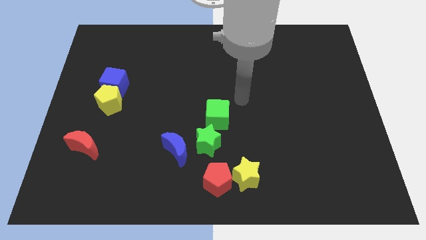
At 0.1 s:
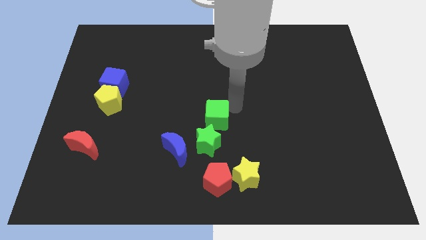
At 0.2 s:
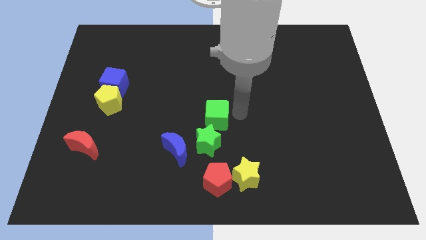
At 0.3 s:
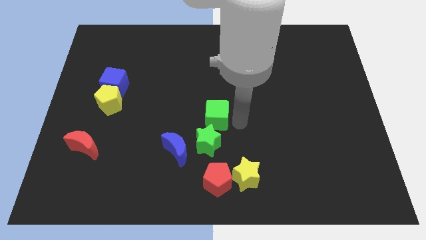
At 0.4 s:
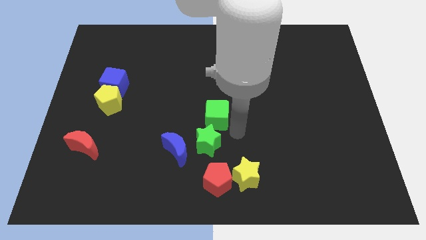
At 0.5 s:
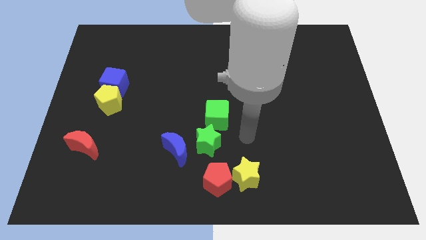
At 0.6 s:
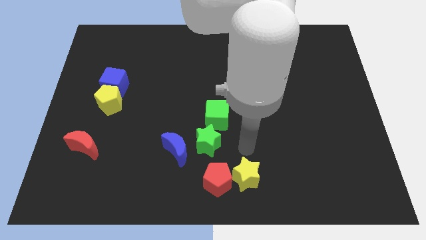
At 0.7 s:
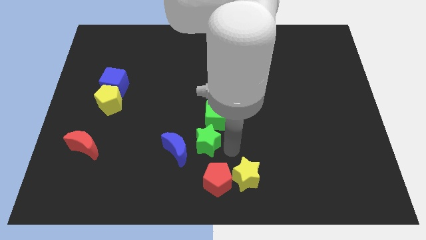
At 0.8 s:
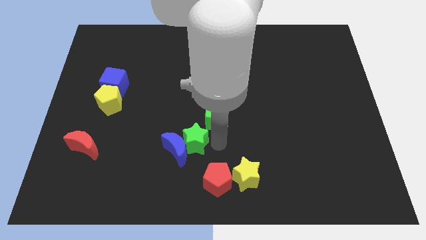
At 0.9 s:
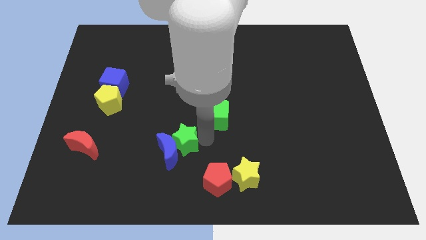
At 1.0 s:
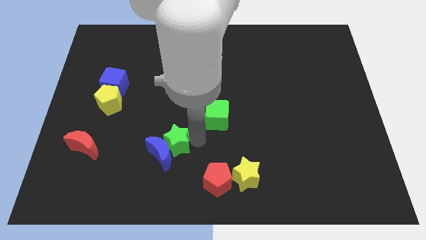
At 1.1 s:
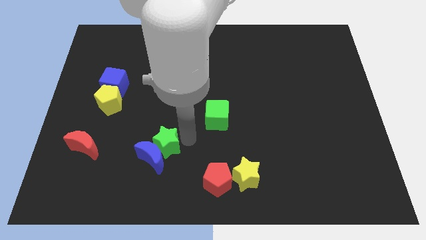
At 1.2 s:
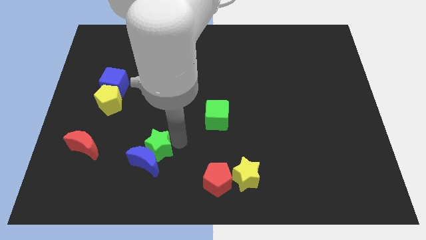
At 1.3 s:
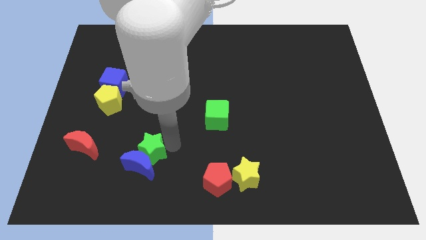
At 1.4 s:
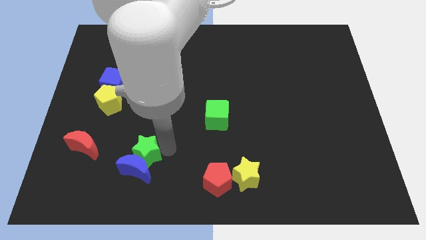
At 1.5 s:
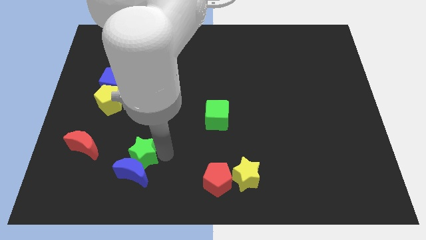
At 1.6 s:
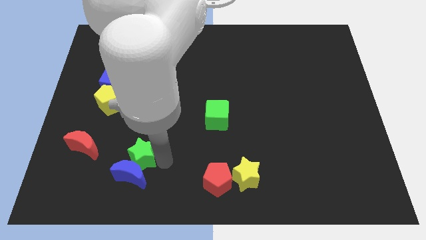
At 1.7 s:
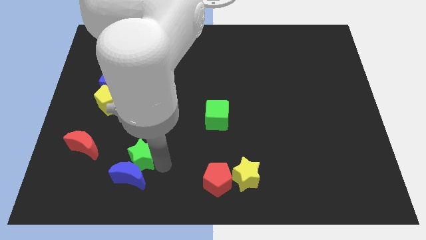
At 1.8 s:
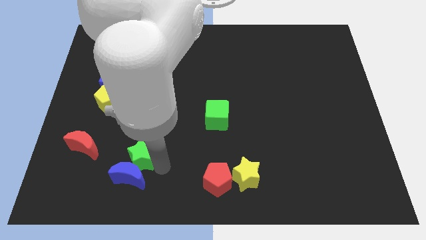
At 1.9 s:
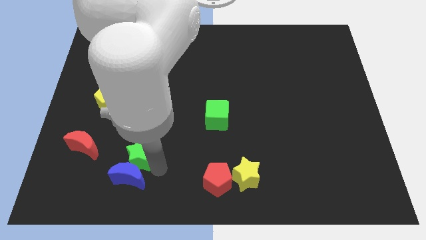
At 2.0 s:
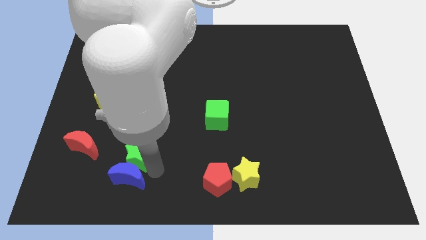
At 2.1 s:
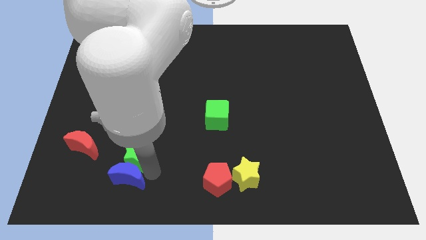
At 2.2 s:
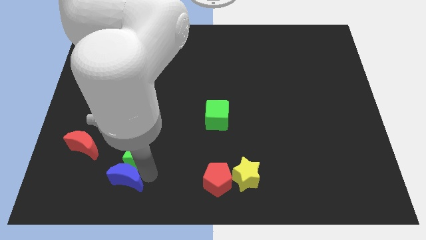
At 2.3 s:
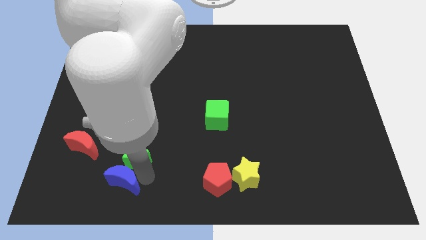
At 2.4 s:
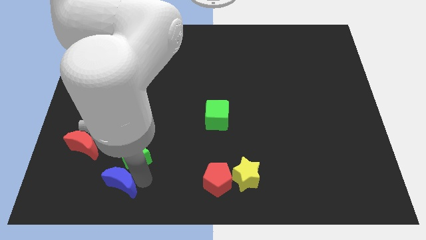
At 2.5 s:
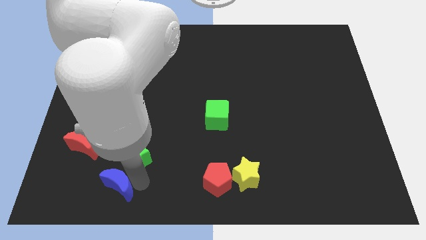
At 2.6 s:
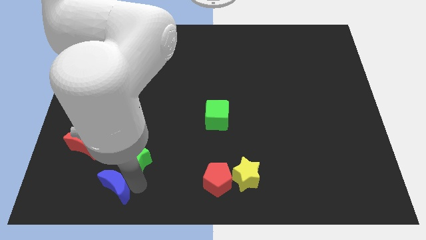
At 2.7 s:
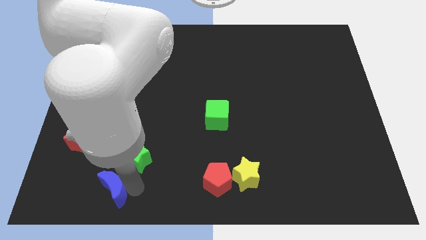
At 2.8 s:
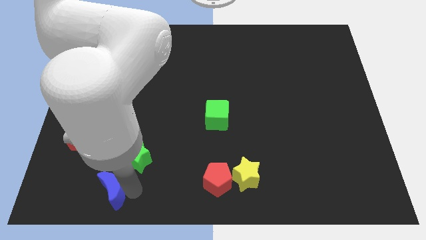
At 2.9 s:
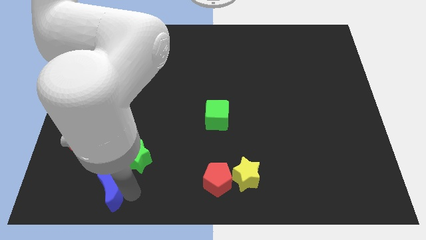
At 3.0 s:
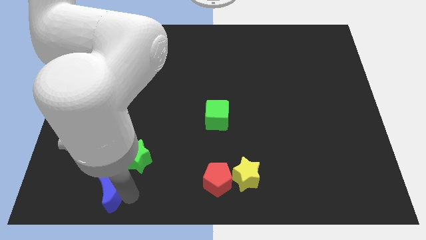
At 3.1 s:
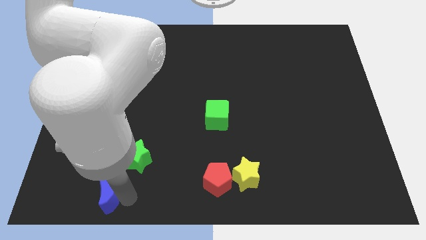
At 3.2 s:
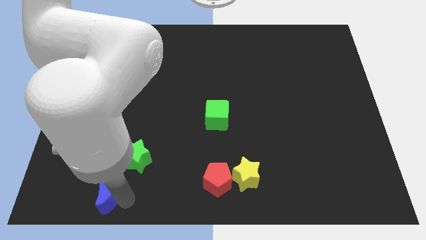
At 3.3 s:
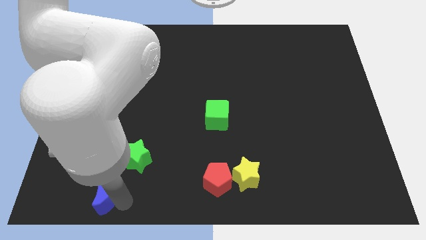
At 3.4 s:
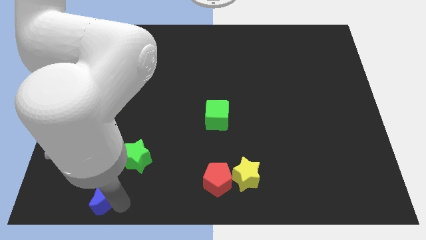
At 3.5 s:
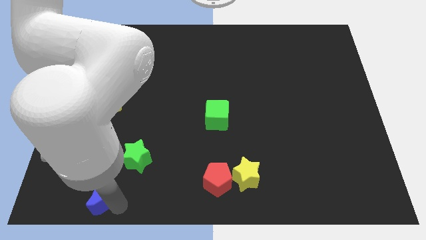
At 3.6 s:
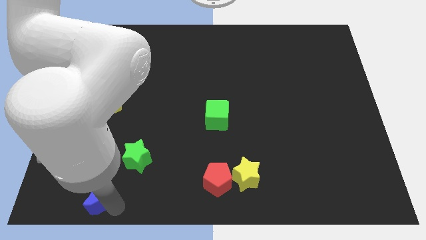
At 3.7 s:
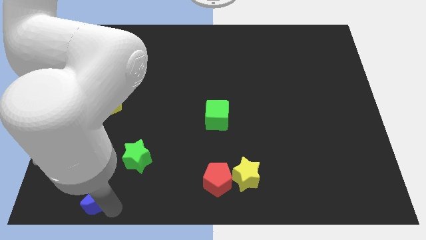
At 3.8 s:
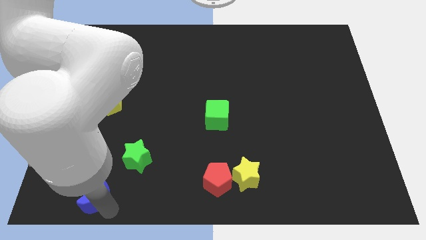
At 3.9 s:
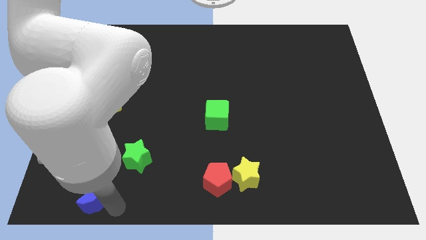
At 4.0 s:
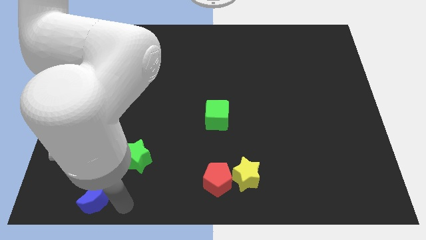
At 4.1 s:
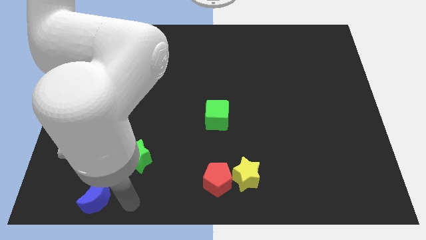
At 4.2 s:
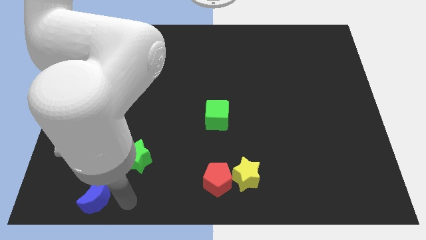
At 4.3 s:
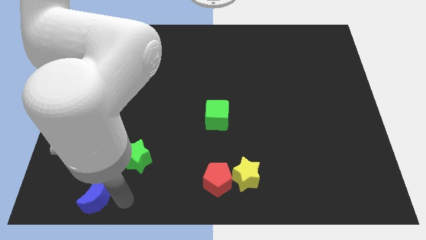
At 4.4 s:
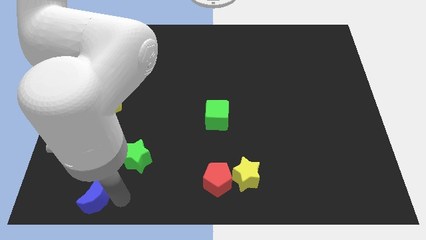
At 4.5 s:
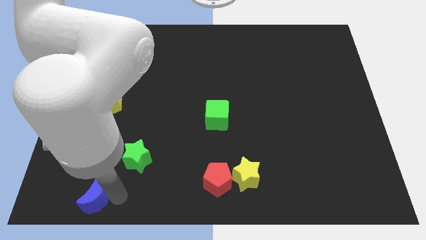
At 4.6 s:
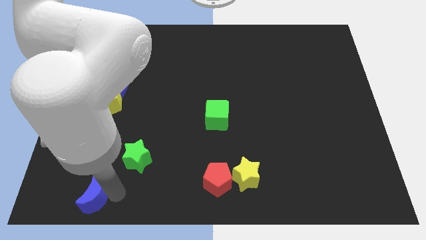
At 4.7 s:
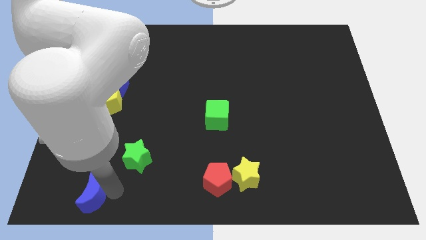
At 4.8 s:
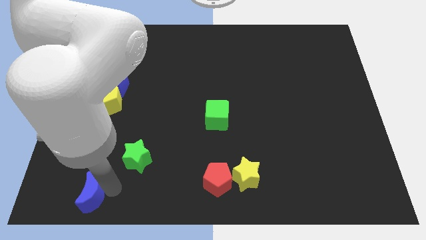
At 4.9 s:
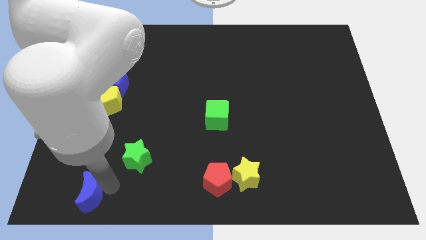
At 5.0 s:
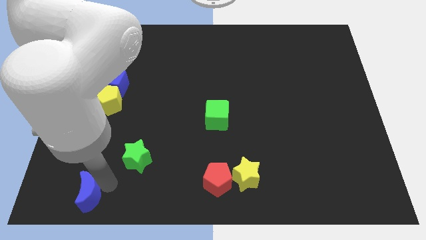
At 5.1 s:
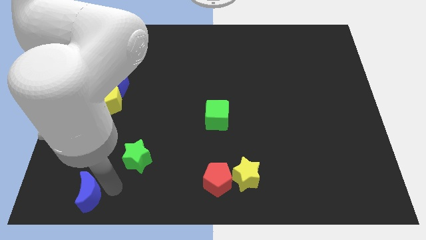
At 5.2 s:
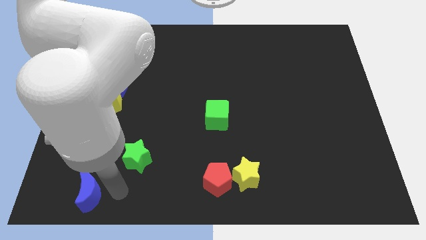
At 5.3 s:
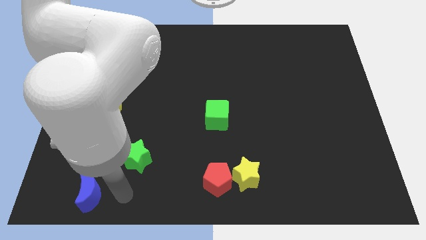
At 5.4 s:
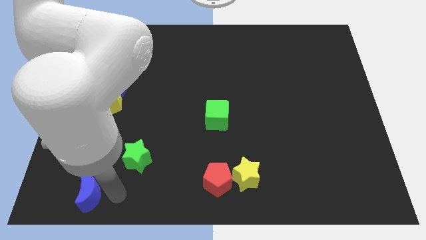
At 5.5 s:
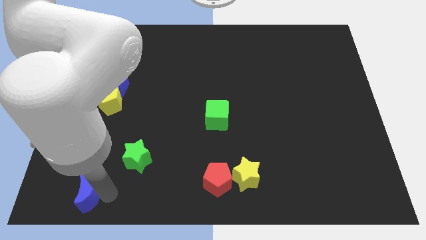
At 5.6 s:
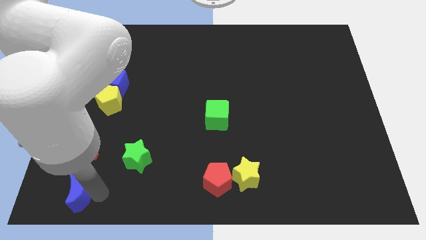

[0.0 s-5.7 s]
put the blue moon to the bottom left of the board

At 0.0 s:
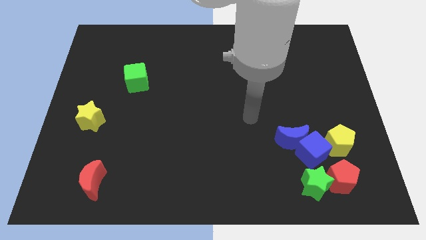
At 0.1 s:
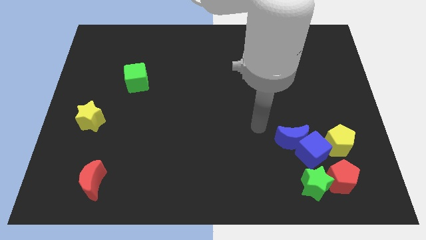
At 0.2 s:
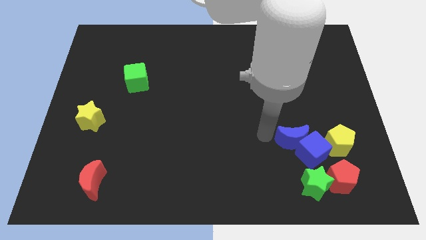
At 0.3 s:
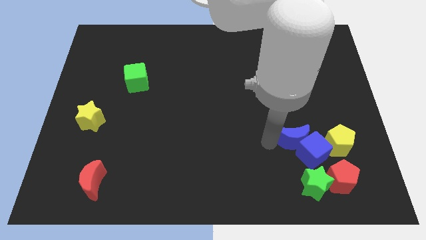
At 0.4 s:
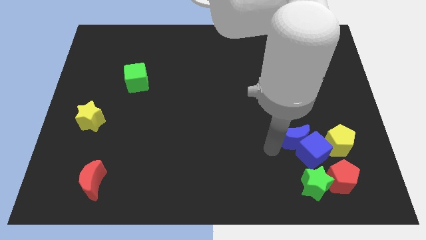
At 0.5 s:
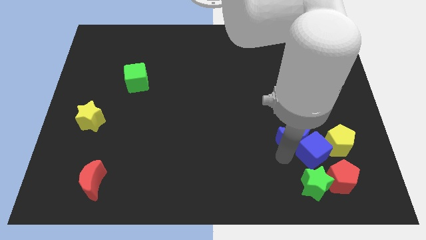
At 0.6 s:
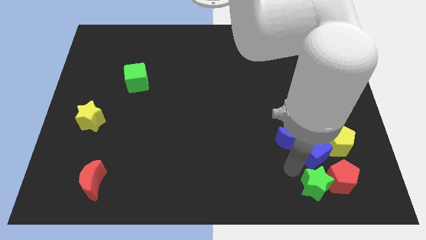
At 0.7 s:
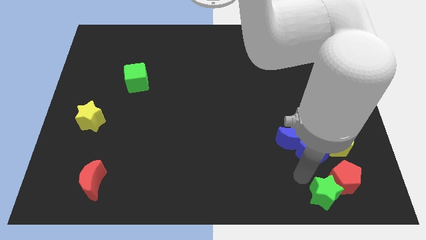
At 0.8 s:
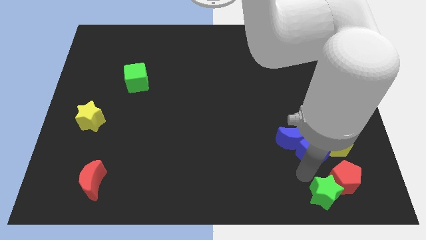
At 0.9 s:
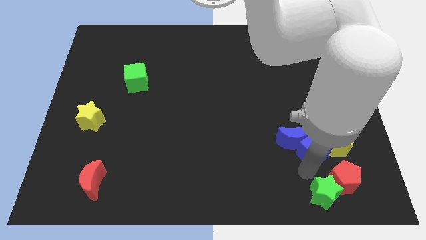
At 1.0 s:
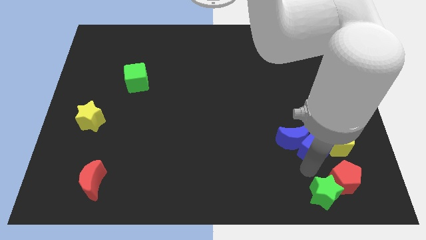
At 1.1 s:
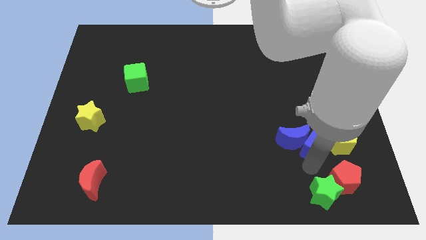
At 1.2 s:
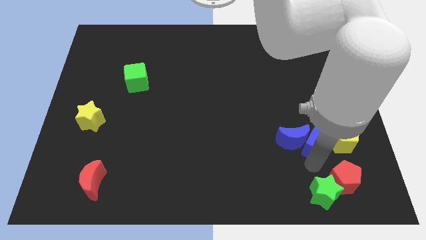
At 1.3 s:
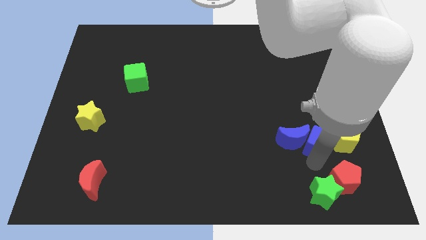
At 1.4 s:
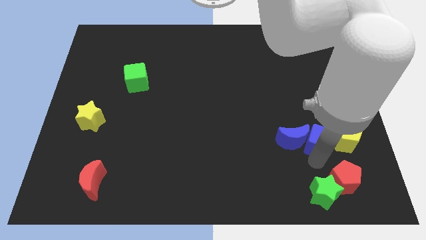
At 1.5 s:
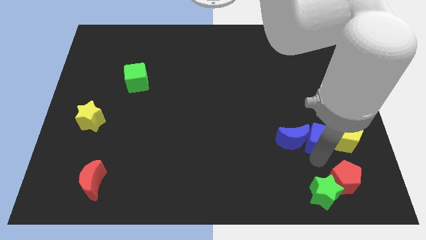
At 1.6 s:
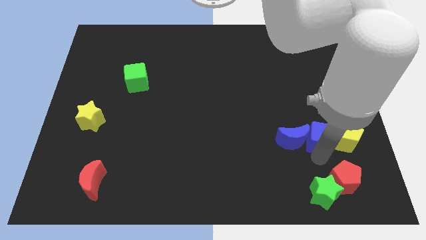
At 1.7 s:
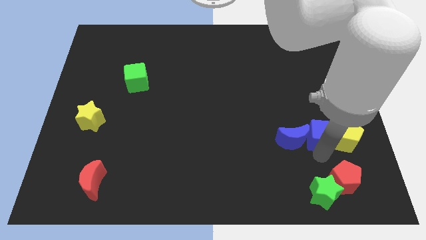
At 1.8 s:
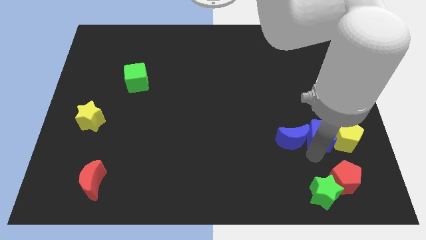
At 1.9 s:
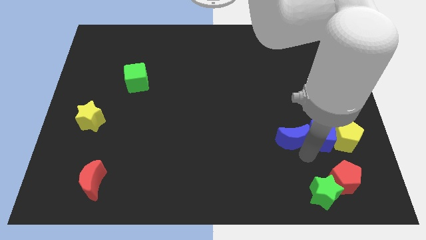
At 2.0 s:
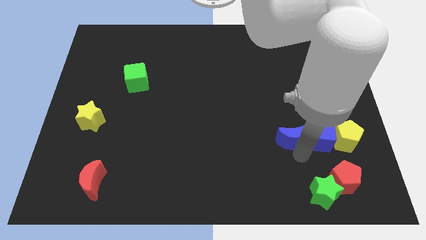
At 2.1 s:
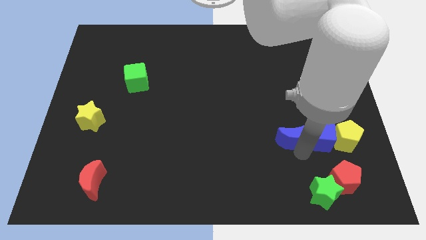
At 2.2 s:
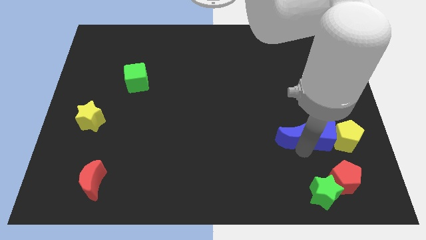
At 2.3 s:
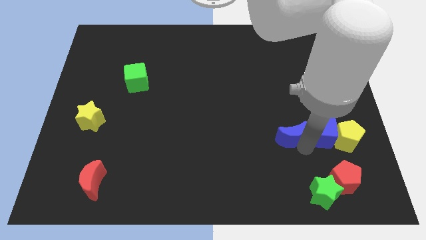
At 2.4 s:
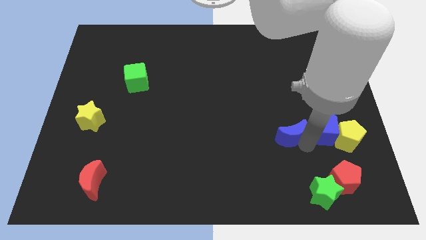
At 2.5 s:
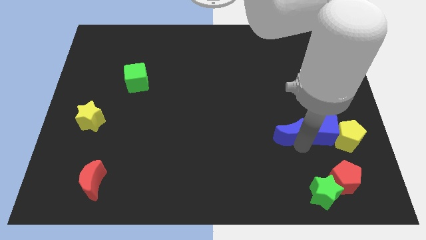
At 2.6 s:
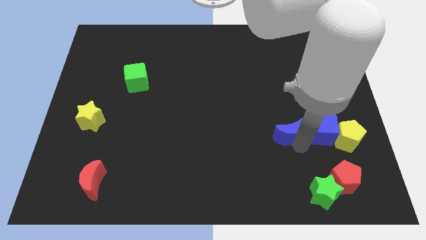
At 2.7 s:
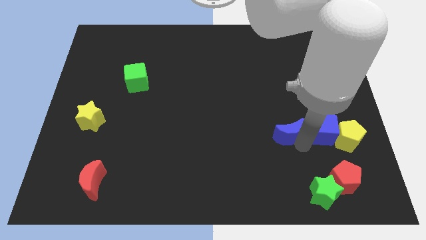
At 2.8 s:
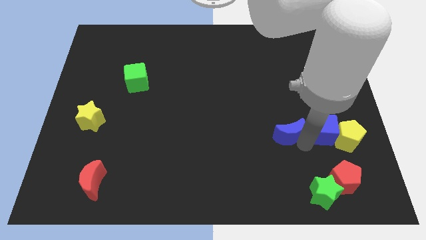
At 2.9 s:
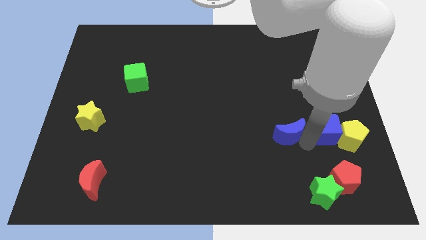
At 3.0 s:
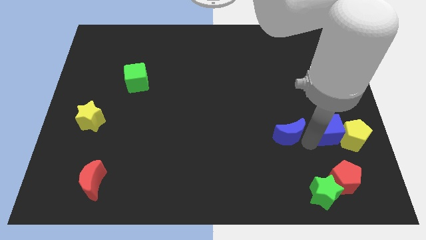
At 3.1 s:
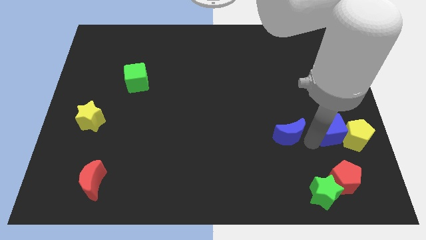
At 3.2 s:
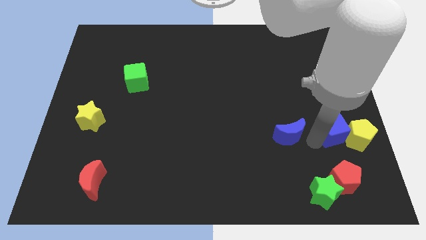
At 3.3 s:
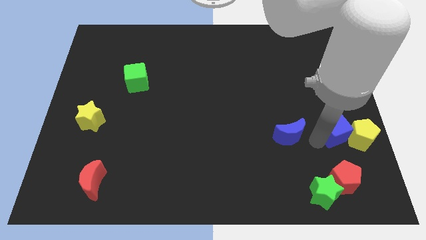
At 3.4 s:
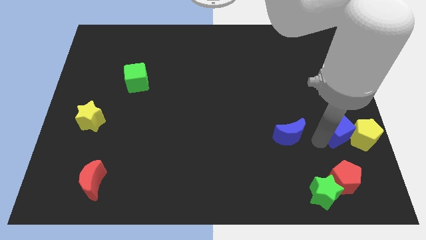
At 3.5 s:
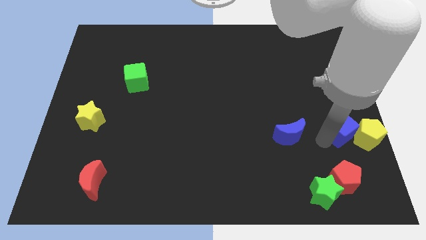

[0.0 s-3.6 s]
move the blue cube to the right side of the board
